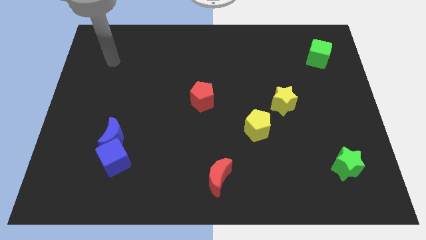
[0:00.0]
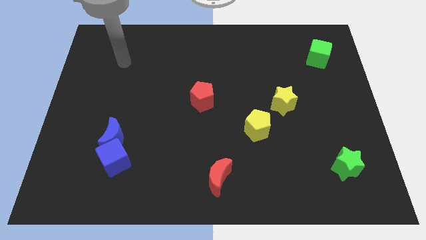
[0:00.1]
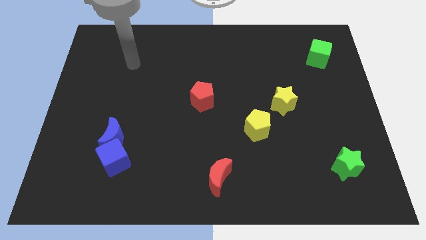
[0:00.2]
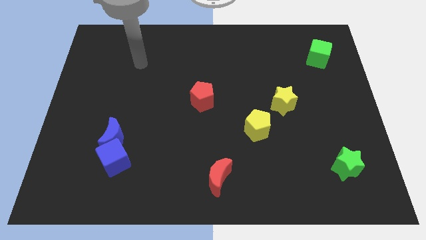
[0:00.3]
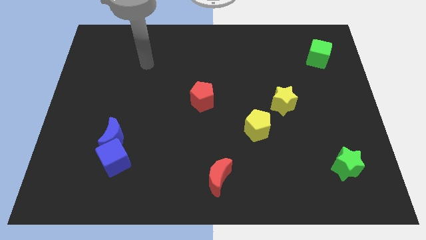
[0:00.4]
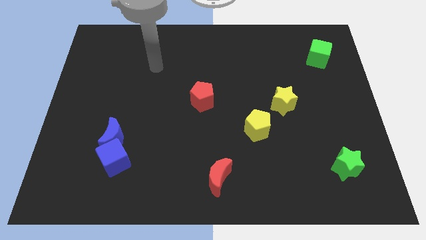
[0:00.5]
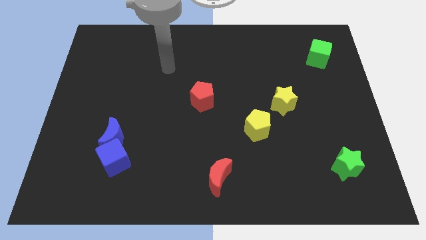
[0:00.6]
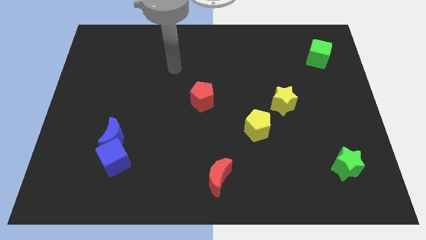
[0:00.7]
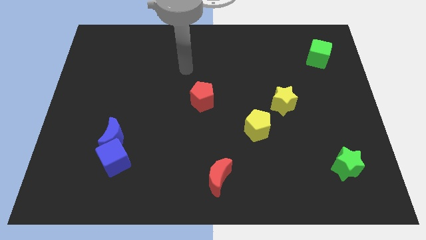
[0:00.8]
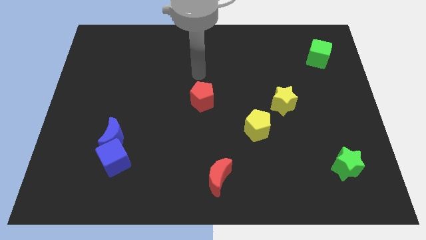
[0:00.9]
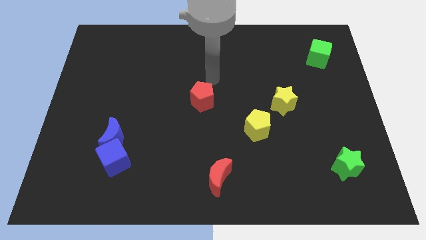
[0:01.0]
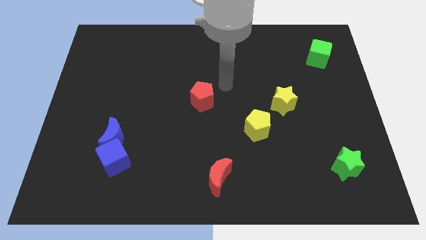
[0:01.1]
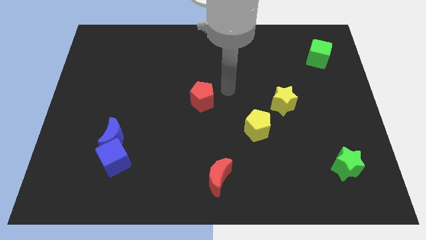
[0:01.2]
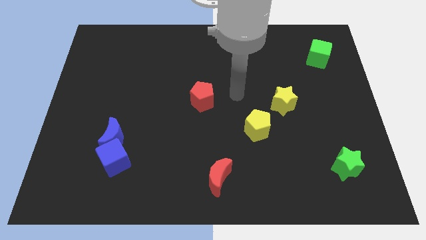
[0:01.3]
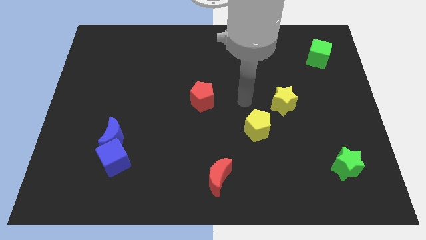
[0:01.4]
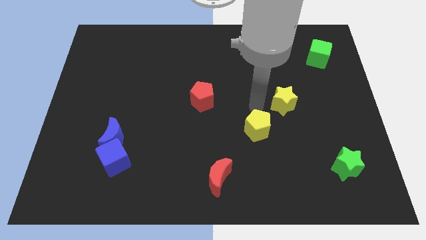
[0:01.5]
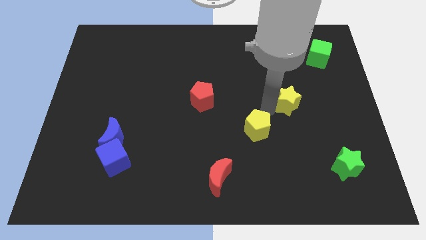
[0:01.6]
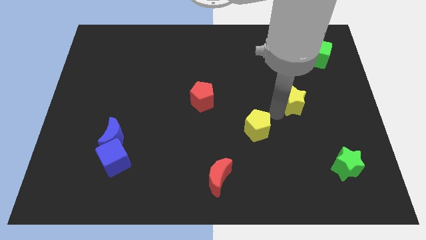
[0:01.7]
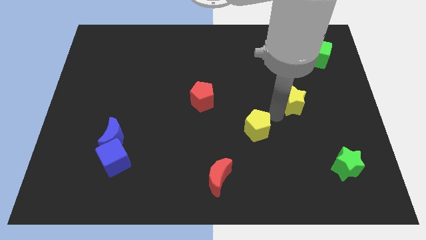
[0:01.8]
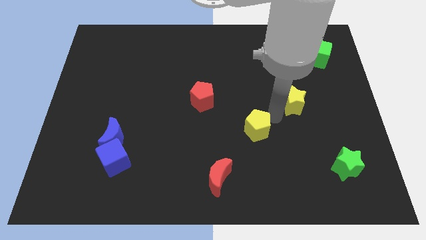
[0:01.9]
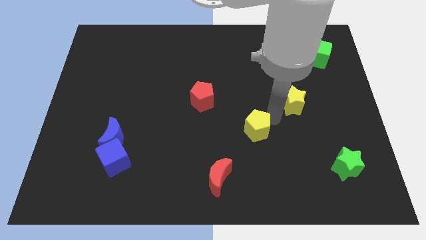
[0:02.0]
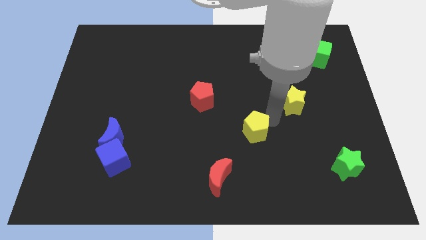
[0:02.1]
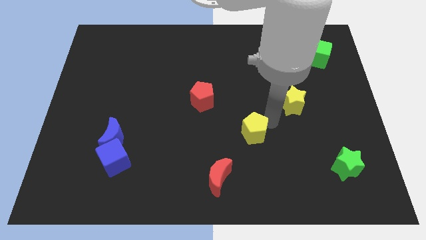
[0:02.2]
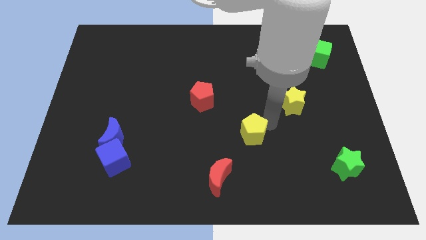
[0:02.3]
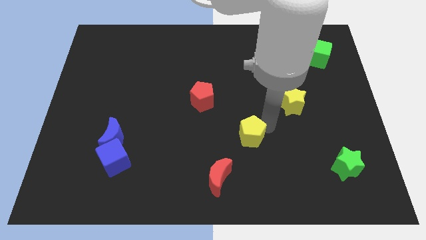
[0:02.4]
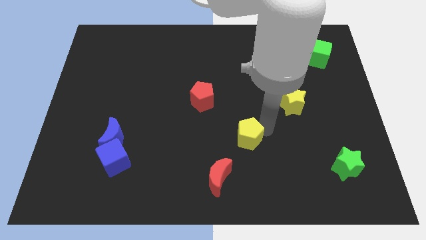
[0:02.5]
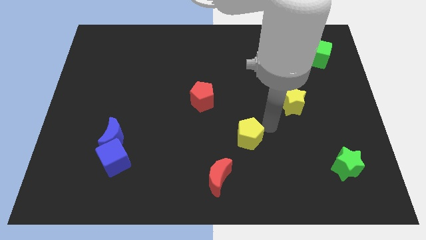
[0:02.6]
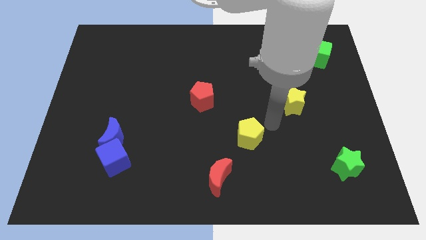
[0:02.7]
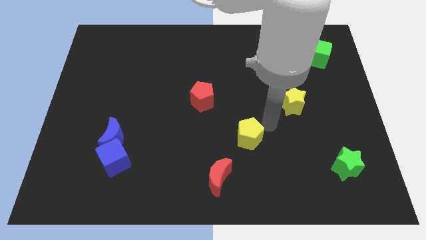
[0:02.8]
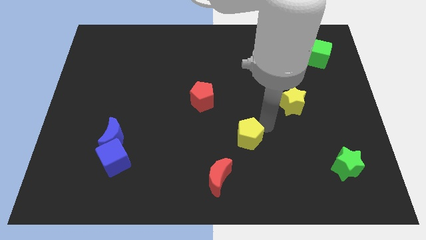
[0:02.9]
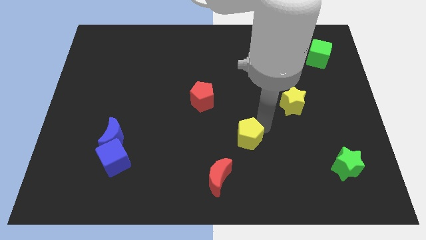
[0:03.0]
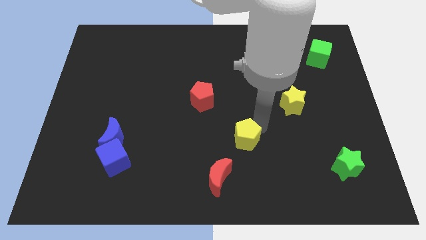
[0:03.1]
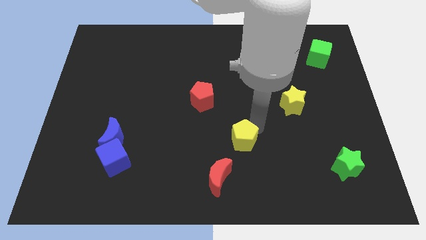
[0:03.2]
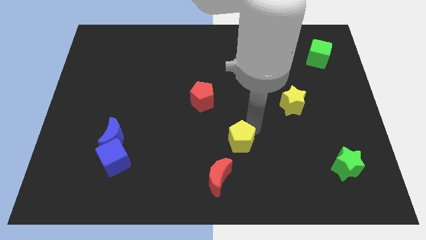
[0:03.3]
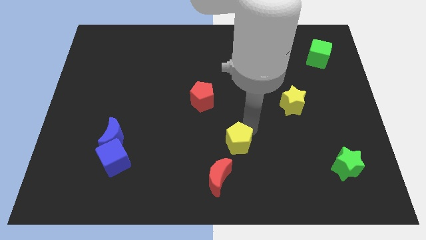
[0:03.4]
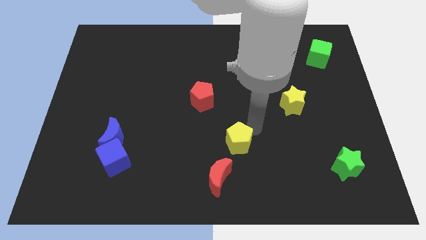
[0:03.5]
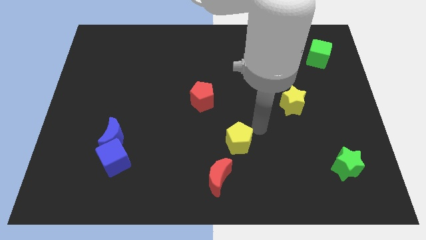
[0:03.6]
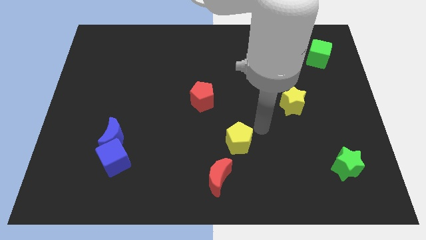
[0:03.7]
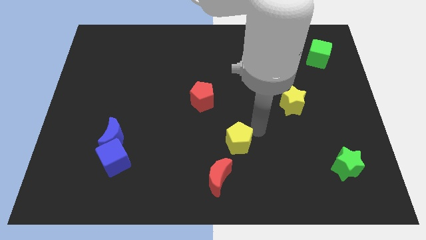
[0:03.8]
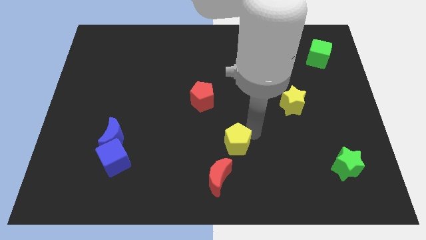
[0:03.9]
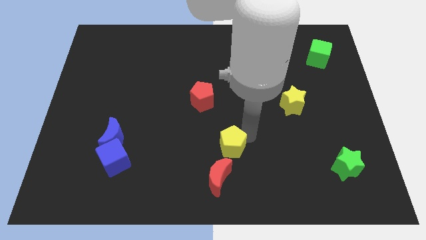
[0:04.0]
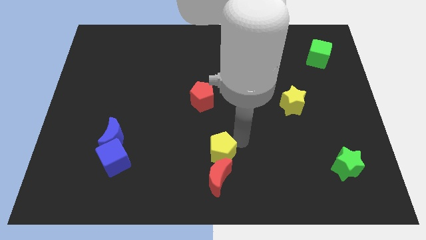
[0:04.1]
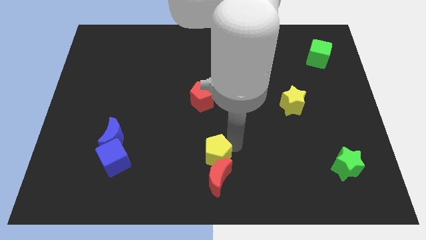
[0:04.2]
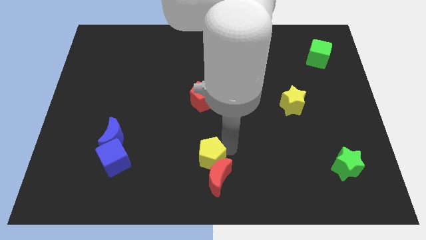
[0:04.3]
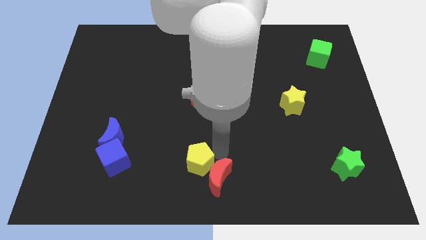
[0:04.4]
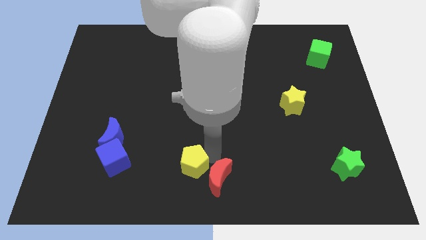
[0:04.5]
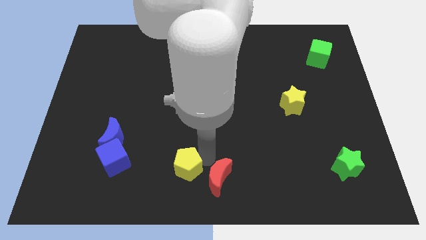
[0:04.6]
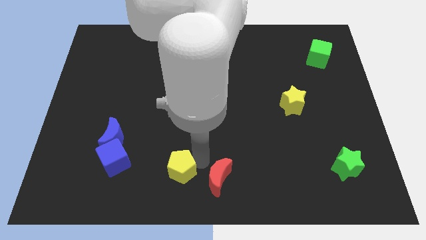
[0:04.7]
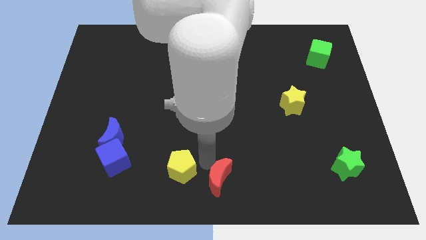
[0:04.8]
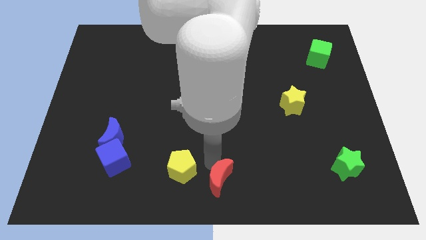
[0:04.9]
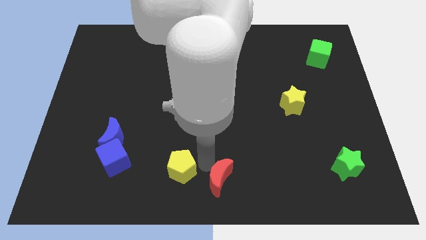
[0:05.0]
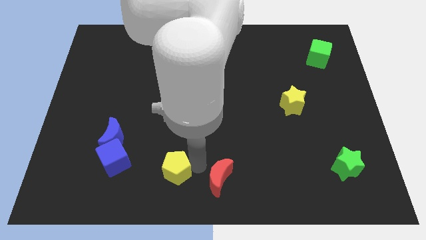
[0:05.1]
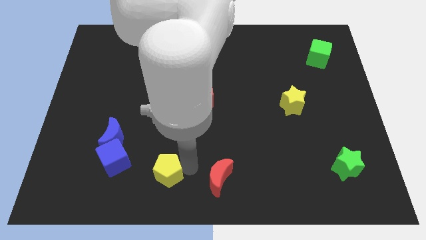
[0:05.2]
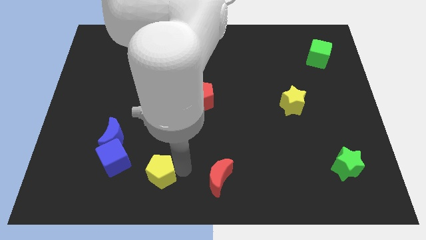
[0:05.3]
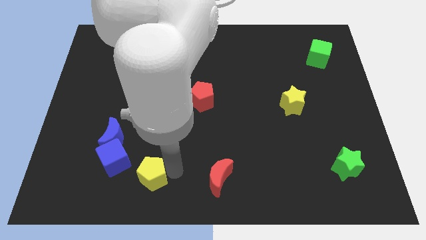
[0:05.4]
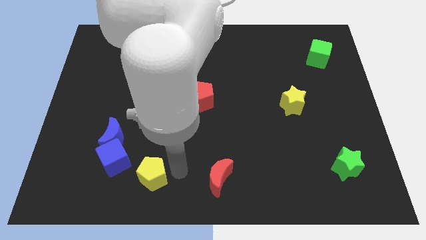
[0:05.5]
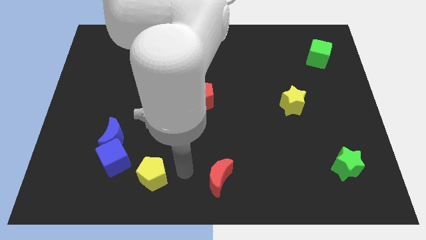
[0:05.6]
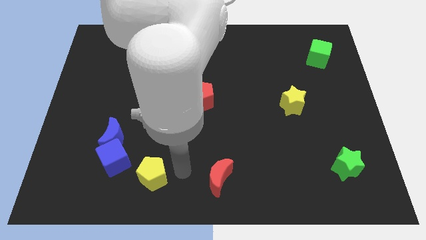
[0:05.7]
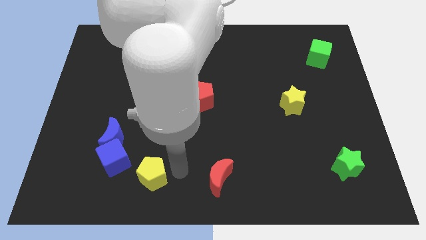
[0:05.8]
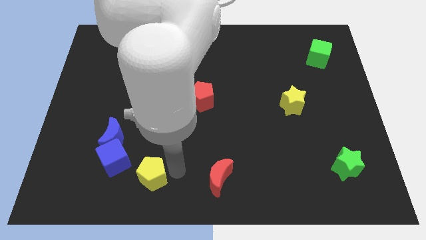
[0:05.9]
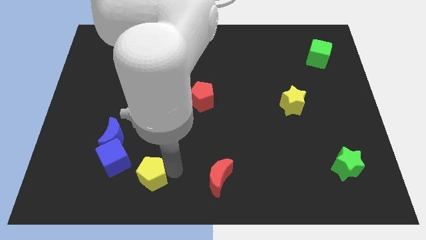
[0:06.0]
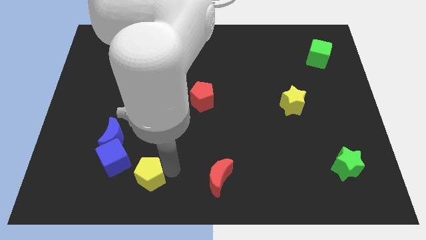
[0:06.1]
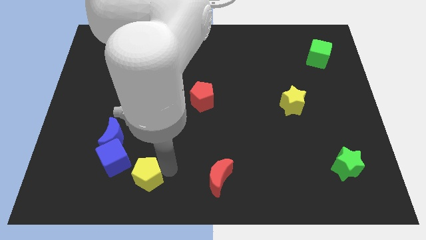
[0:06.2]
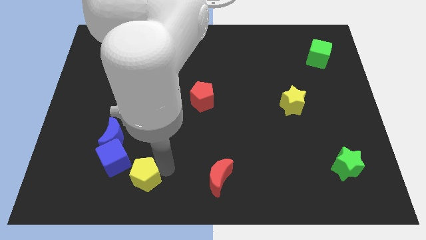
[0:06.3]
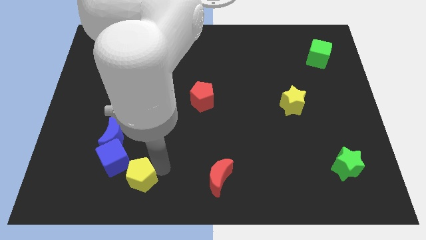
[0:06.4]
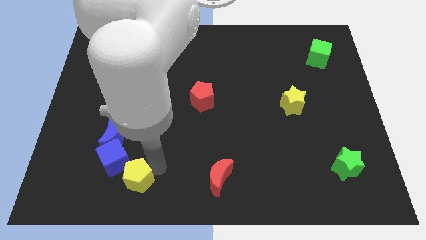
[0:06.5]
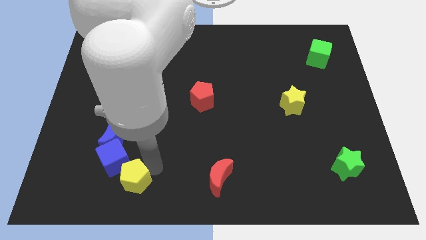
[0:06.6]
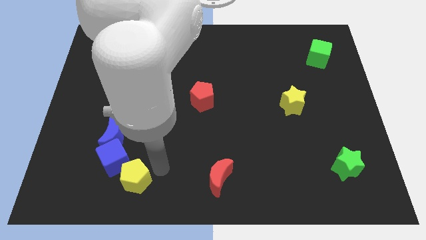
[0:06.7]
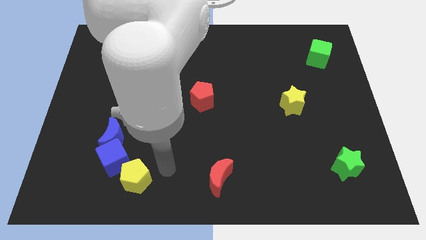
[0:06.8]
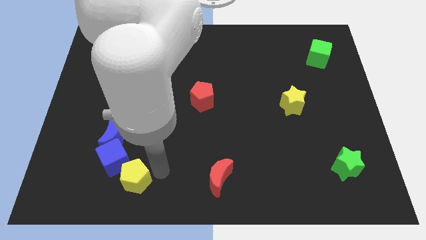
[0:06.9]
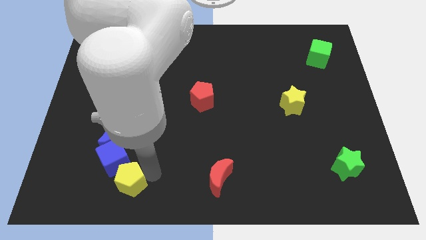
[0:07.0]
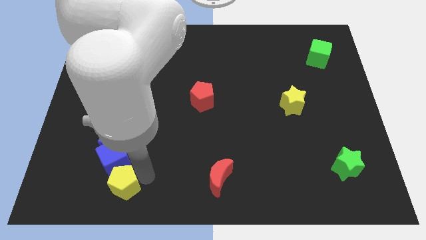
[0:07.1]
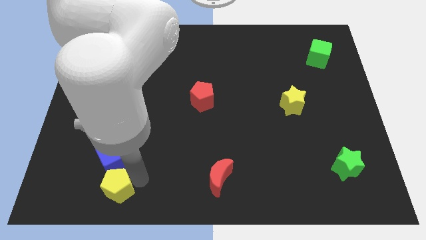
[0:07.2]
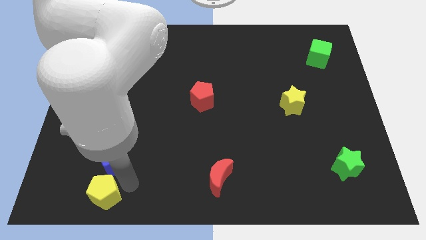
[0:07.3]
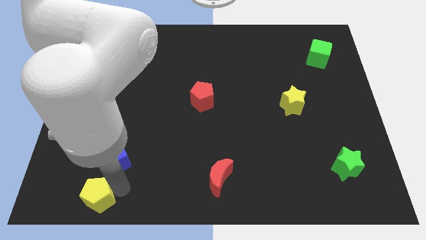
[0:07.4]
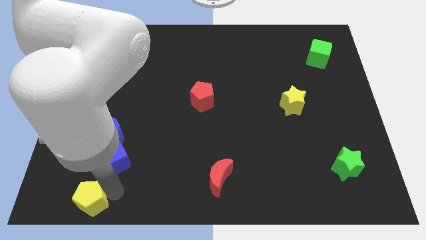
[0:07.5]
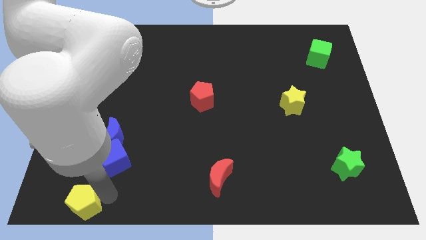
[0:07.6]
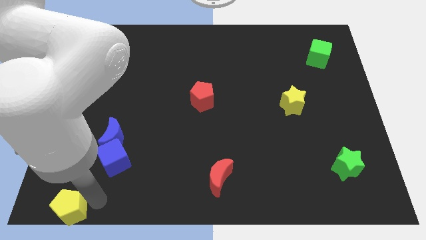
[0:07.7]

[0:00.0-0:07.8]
push the yellow pentagon to the bottom left corner

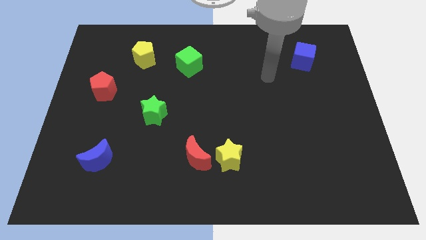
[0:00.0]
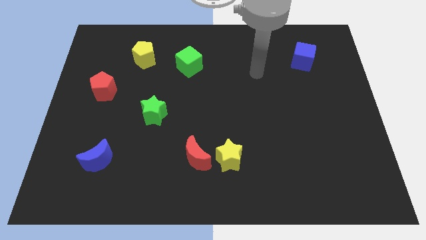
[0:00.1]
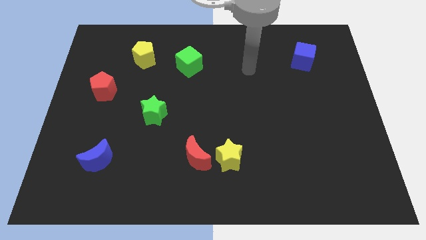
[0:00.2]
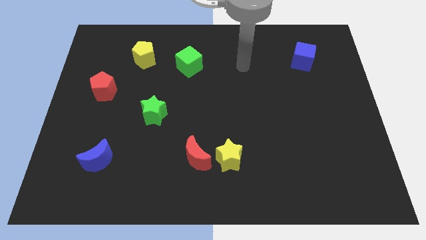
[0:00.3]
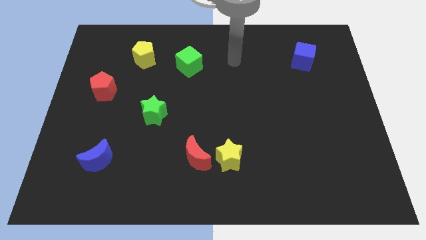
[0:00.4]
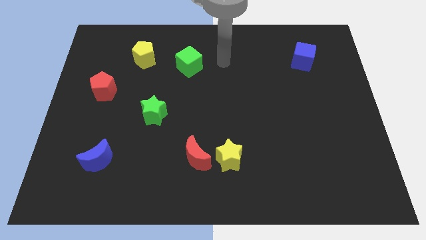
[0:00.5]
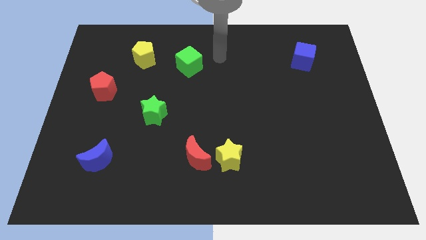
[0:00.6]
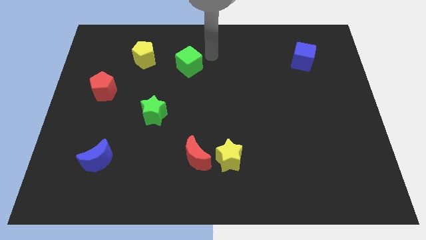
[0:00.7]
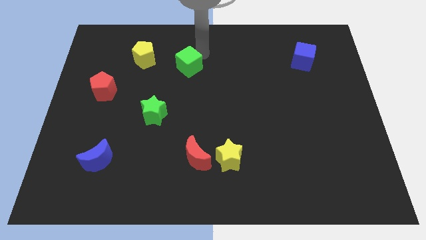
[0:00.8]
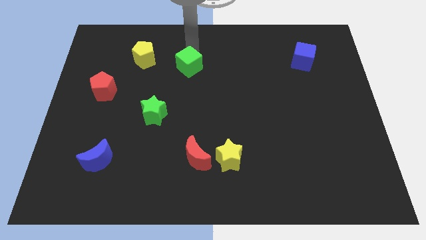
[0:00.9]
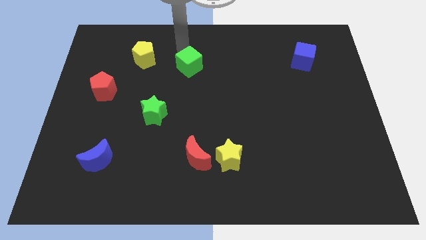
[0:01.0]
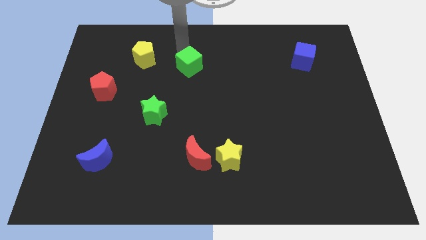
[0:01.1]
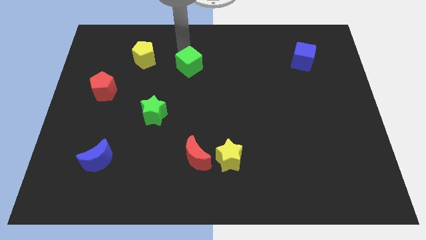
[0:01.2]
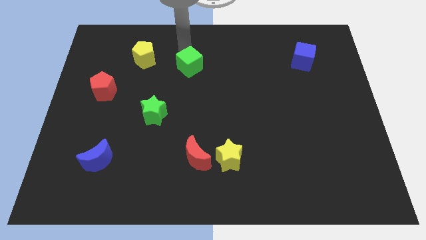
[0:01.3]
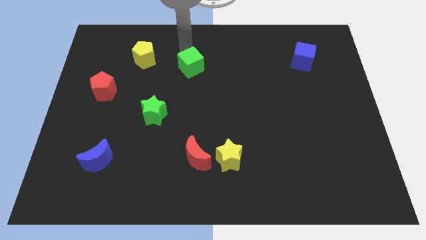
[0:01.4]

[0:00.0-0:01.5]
put the green cube to the middle
